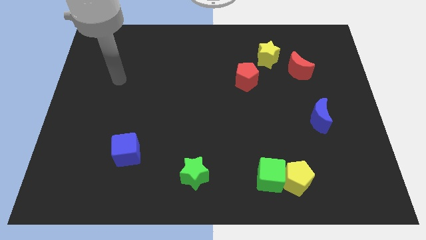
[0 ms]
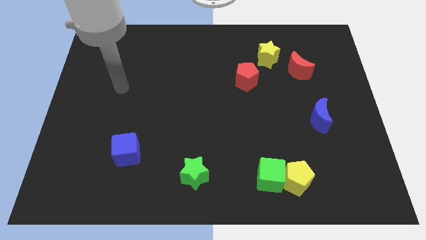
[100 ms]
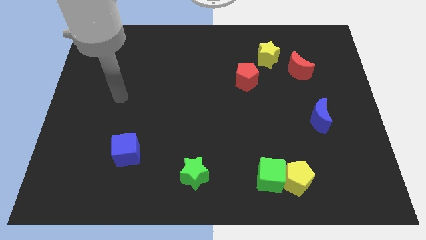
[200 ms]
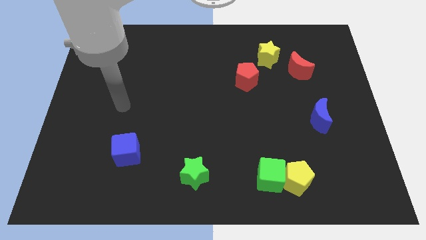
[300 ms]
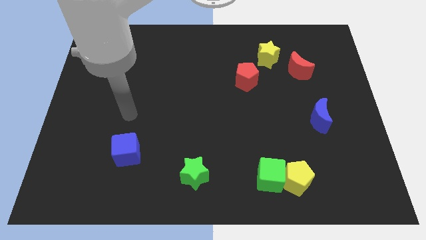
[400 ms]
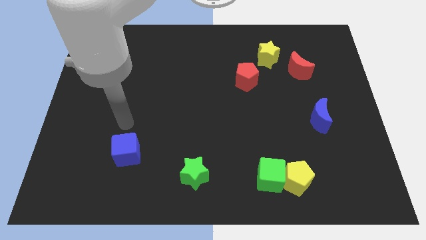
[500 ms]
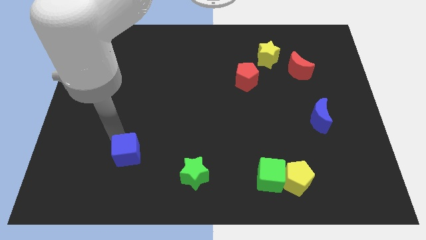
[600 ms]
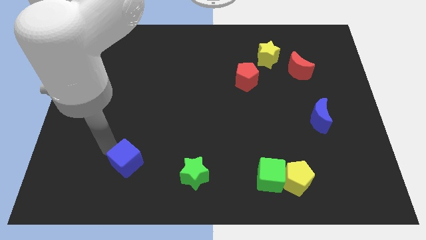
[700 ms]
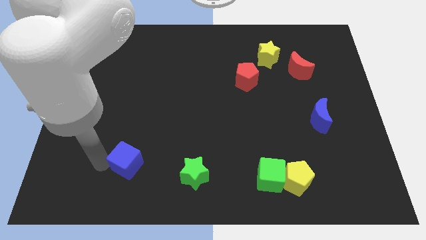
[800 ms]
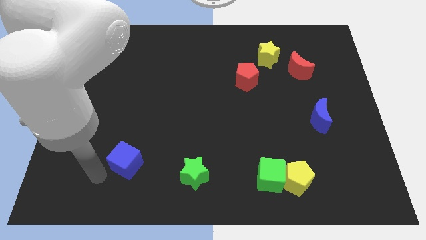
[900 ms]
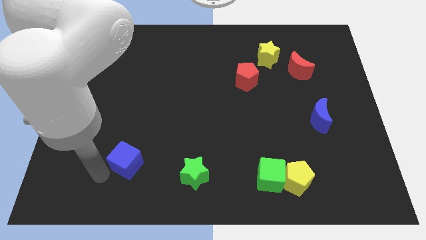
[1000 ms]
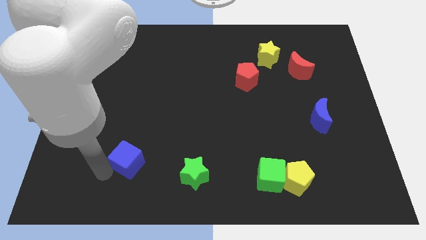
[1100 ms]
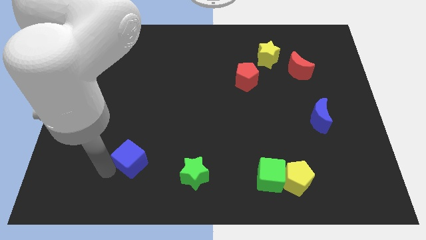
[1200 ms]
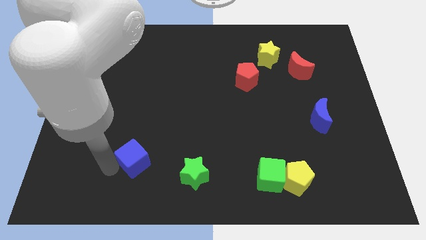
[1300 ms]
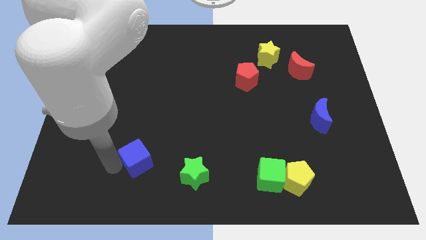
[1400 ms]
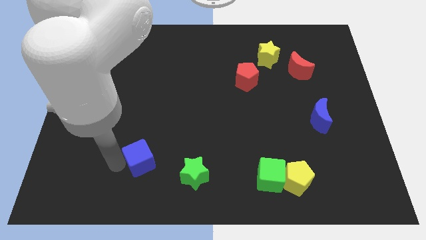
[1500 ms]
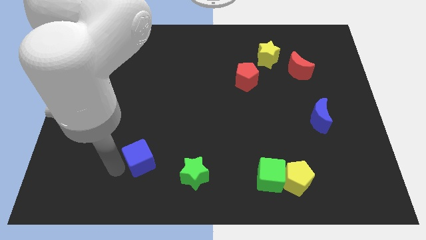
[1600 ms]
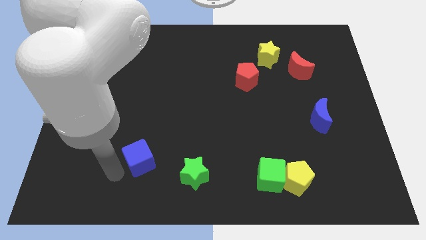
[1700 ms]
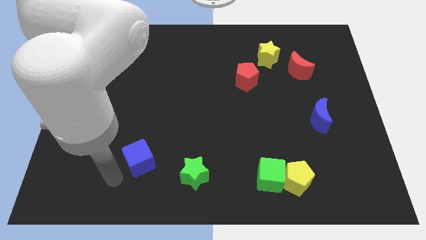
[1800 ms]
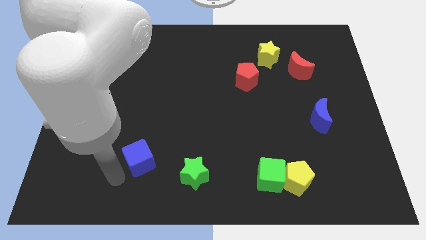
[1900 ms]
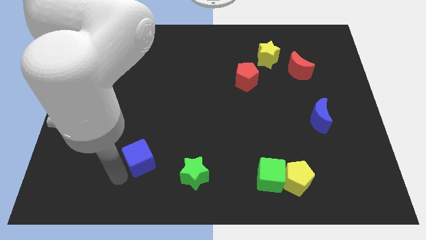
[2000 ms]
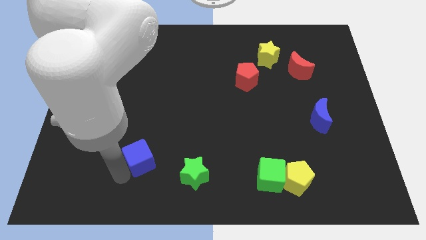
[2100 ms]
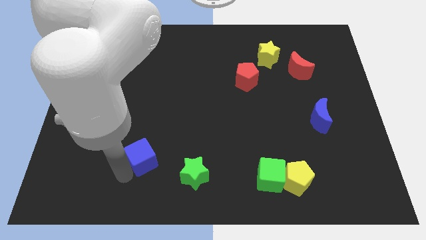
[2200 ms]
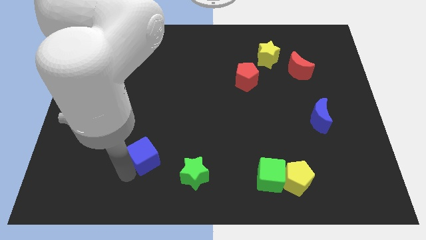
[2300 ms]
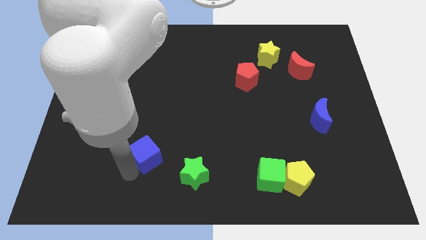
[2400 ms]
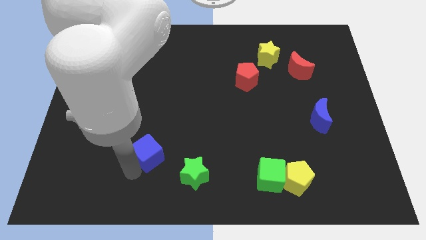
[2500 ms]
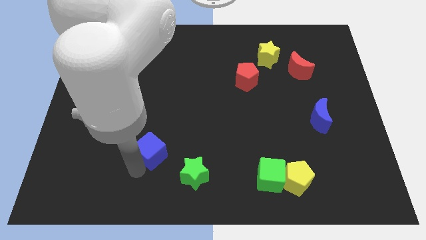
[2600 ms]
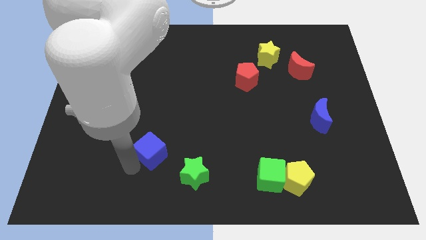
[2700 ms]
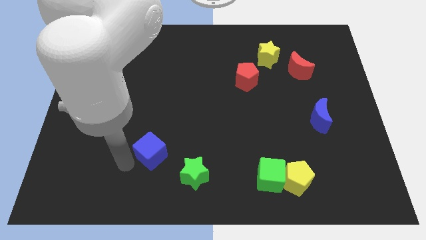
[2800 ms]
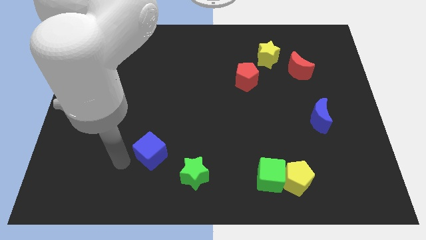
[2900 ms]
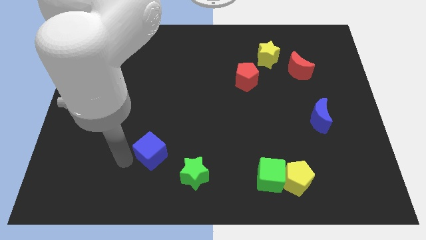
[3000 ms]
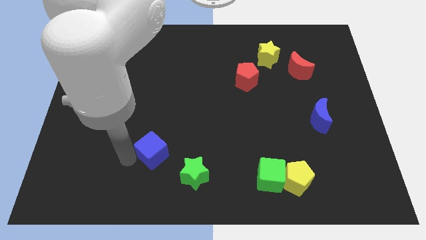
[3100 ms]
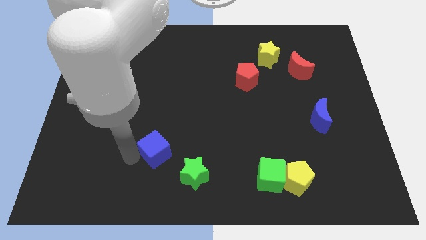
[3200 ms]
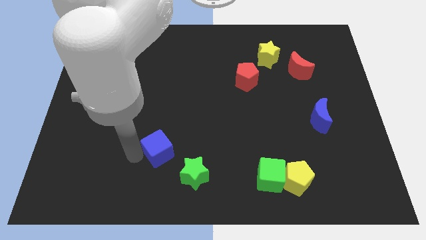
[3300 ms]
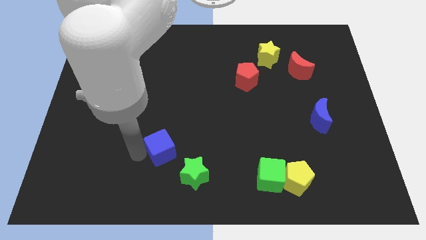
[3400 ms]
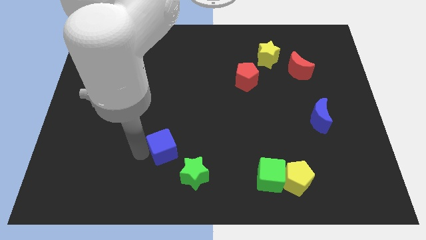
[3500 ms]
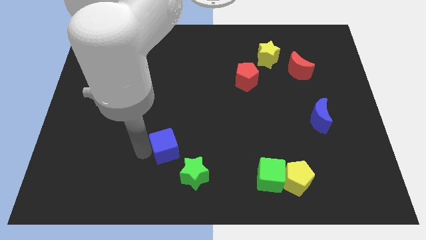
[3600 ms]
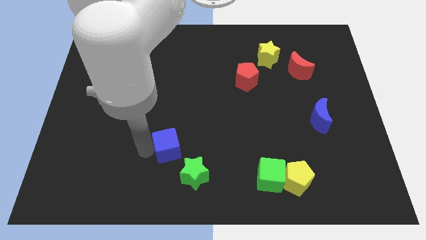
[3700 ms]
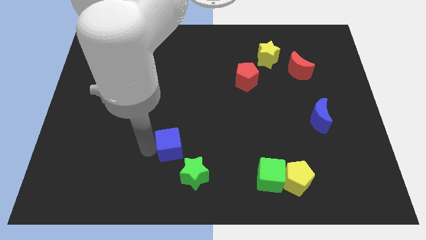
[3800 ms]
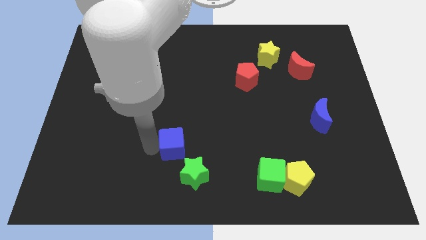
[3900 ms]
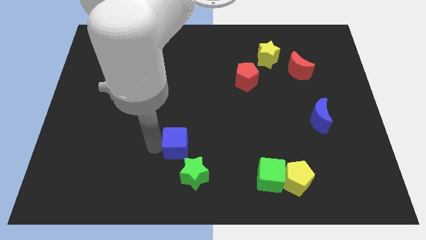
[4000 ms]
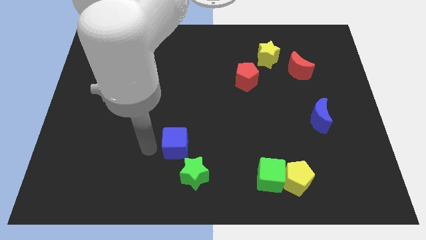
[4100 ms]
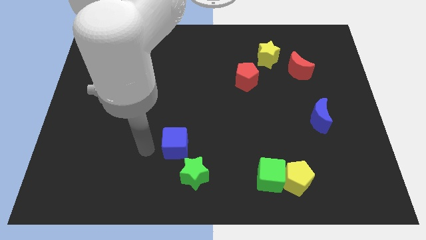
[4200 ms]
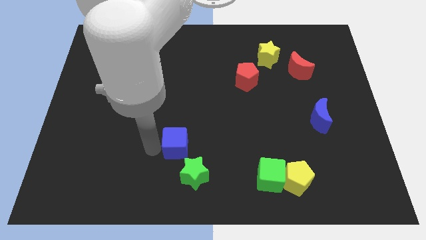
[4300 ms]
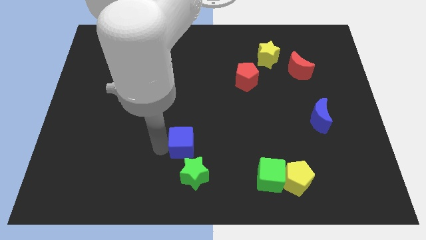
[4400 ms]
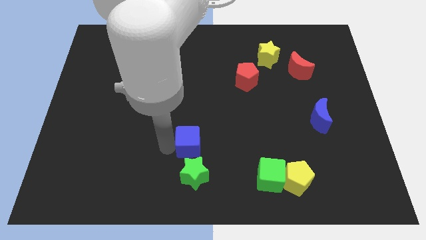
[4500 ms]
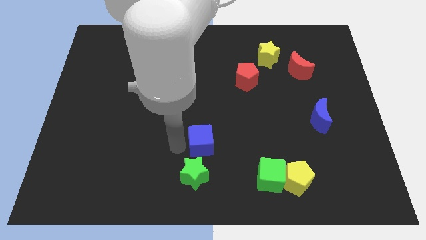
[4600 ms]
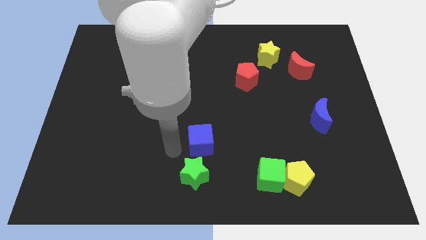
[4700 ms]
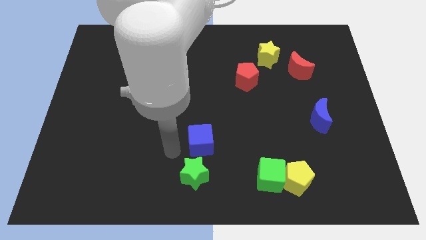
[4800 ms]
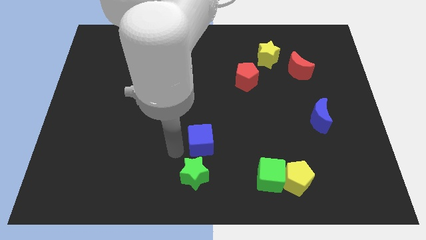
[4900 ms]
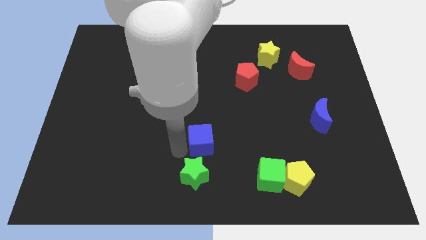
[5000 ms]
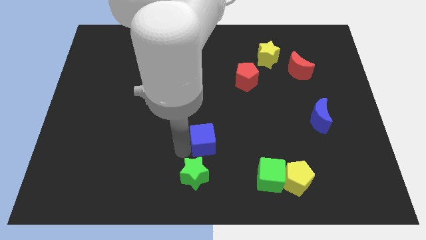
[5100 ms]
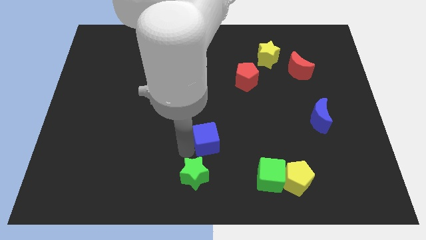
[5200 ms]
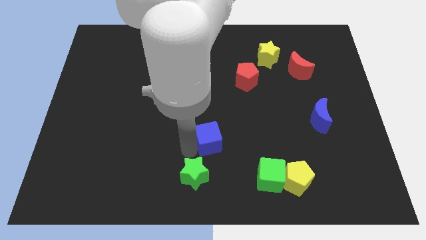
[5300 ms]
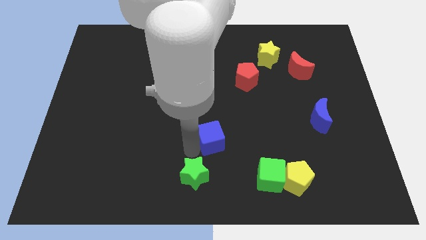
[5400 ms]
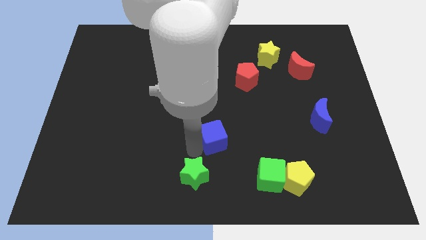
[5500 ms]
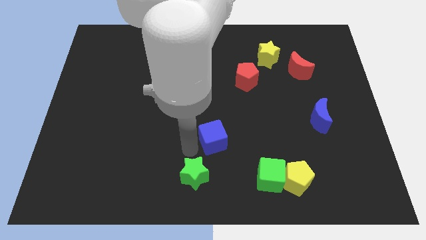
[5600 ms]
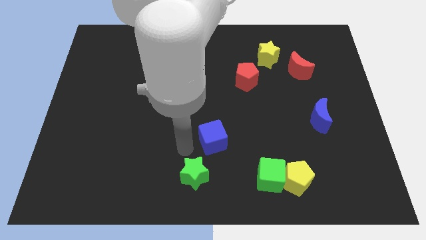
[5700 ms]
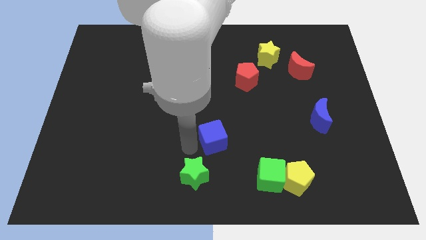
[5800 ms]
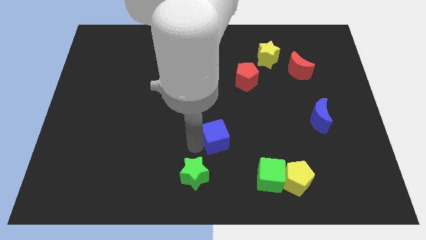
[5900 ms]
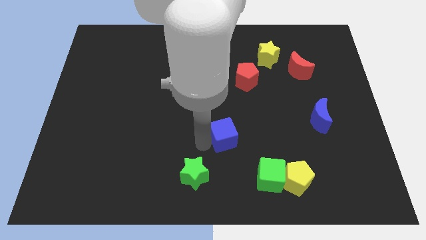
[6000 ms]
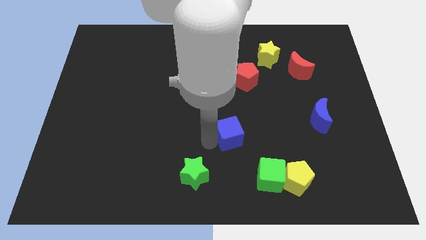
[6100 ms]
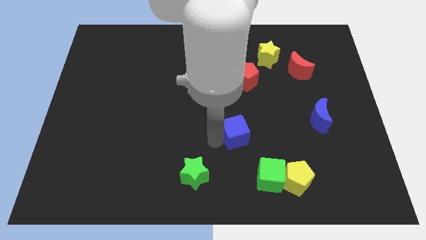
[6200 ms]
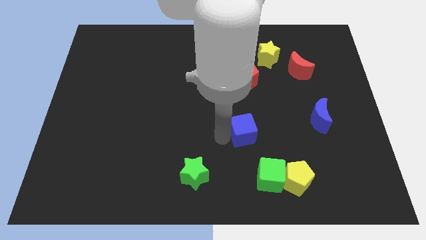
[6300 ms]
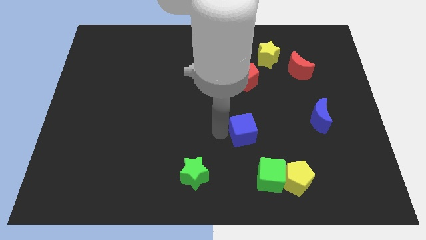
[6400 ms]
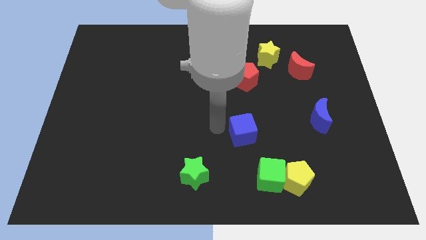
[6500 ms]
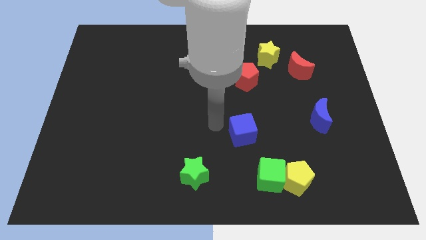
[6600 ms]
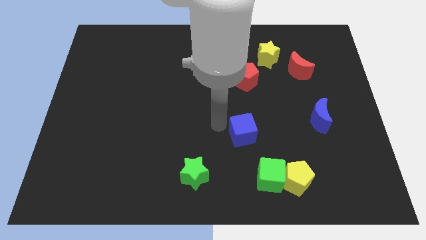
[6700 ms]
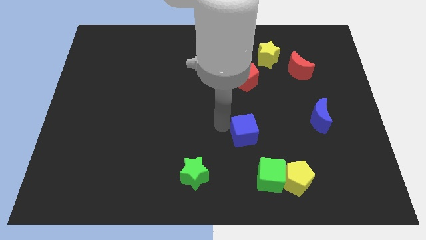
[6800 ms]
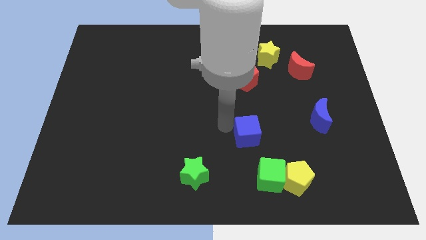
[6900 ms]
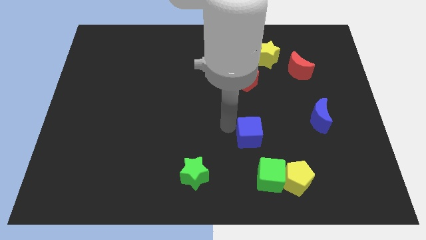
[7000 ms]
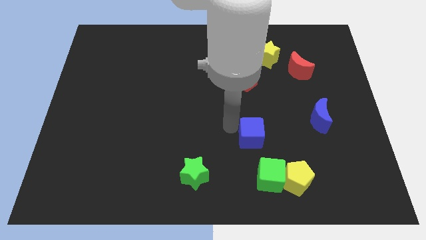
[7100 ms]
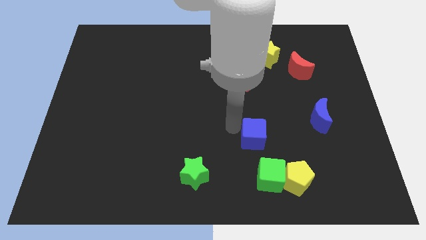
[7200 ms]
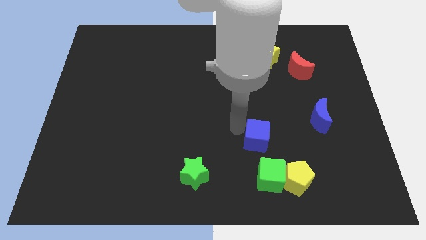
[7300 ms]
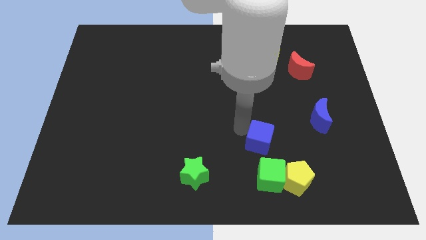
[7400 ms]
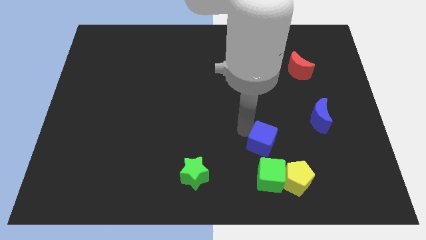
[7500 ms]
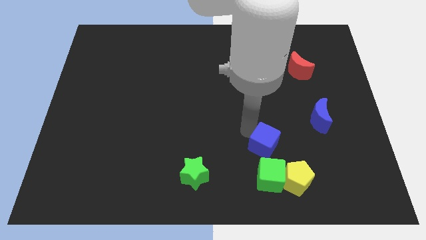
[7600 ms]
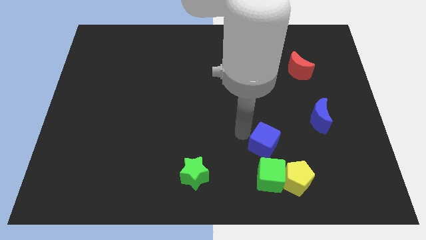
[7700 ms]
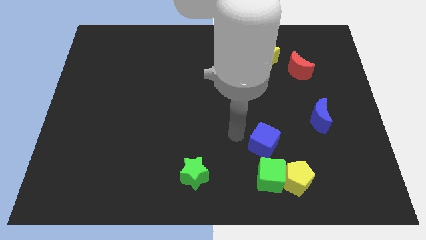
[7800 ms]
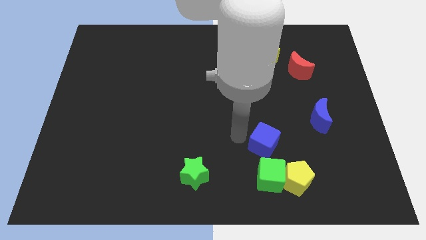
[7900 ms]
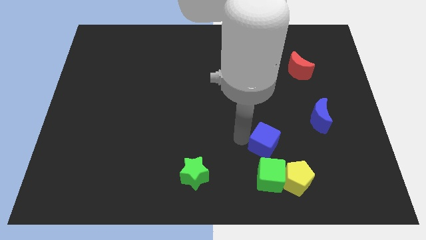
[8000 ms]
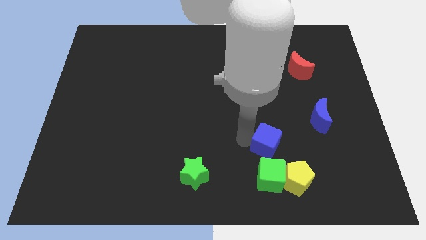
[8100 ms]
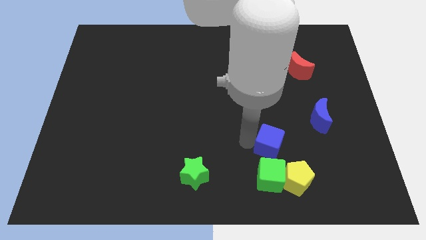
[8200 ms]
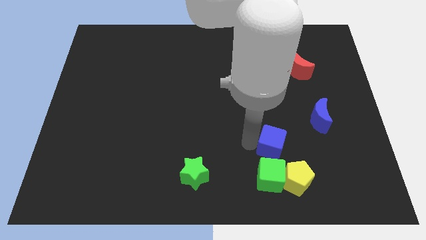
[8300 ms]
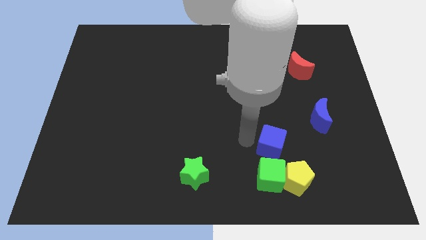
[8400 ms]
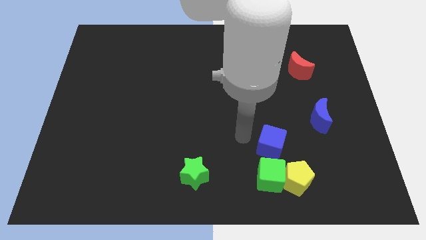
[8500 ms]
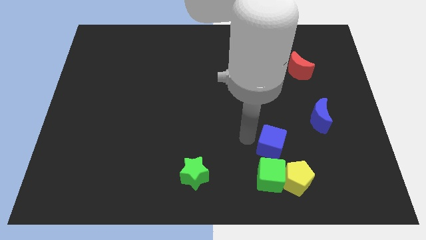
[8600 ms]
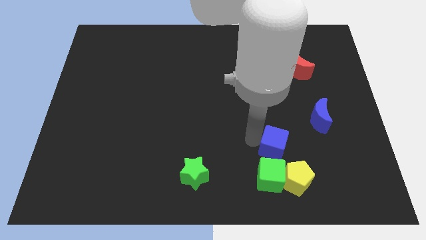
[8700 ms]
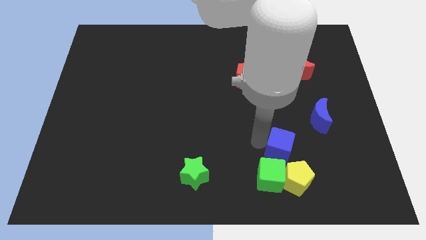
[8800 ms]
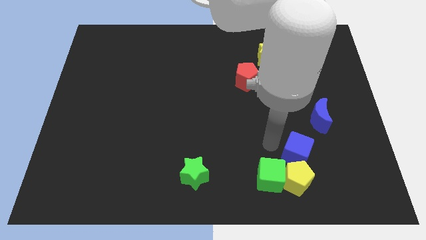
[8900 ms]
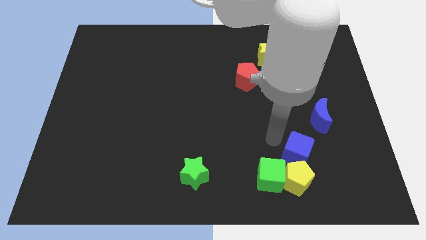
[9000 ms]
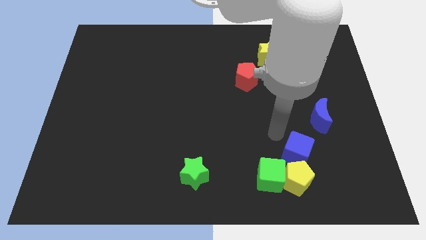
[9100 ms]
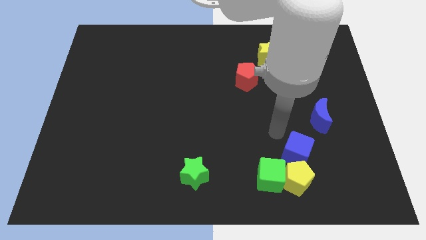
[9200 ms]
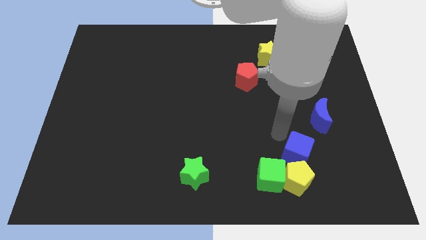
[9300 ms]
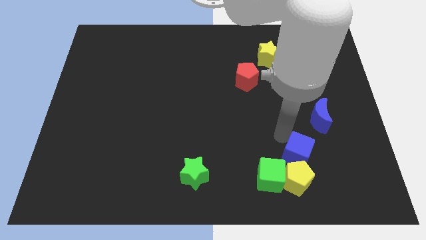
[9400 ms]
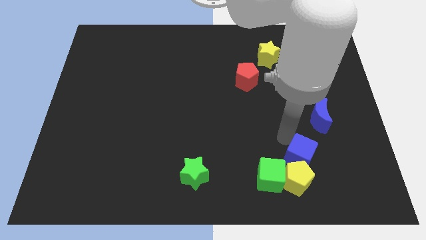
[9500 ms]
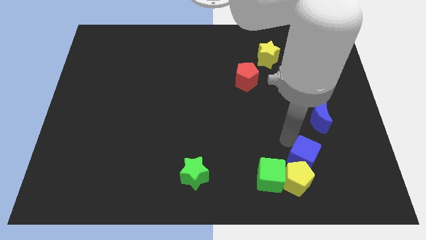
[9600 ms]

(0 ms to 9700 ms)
move the blue cube just right of the green cube
